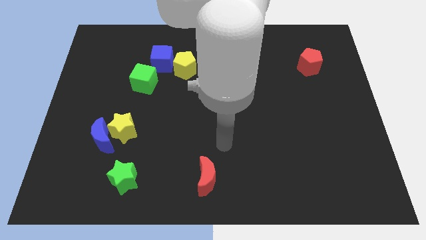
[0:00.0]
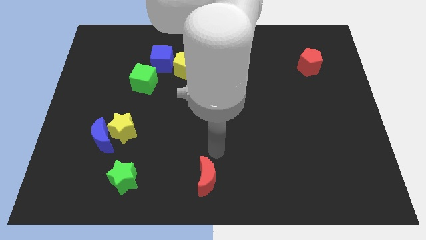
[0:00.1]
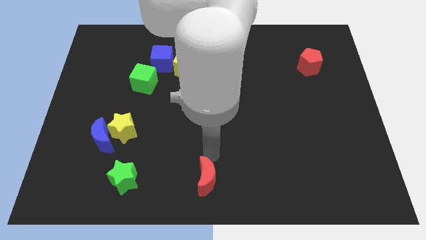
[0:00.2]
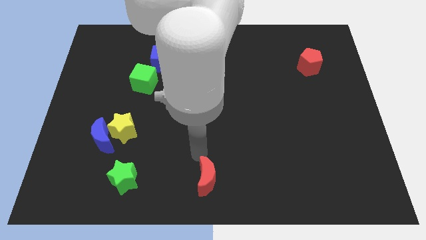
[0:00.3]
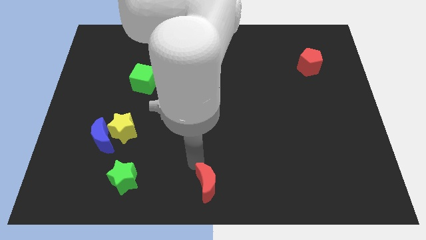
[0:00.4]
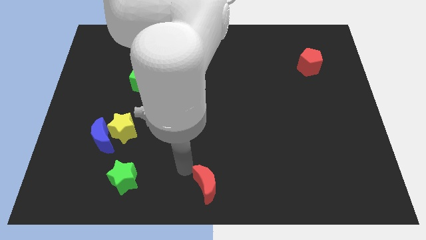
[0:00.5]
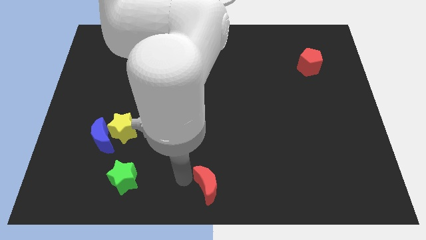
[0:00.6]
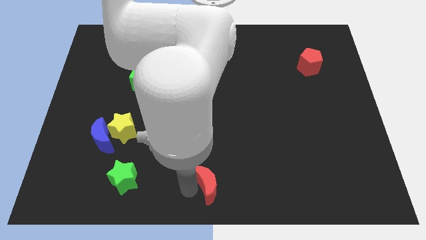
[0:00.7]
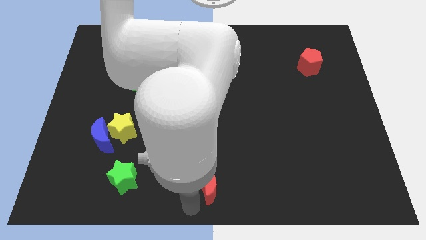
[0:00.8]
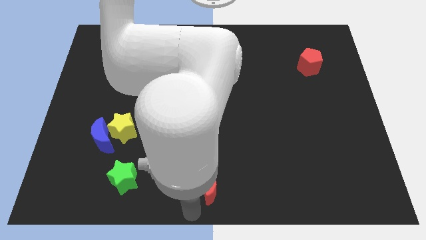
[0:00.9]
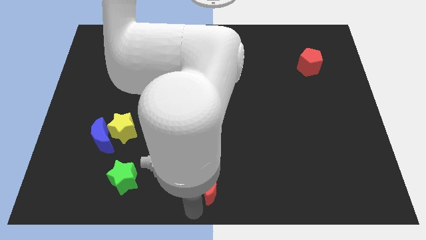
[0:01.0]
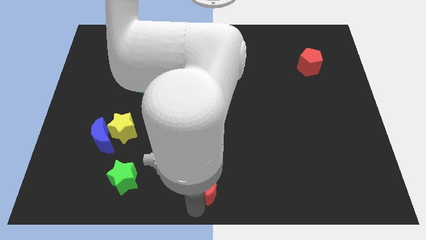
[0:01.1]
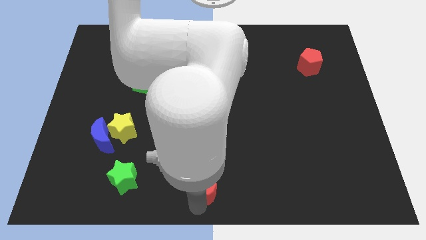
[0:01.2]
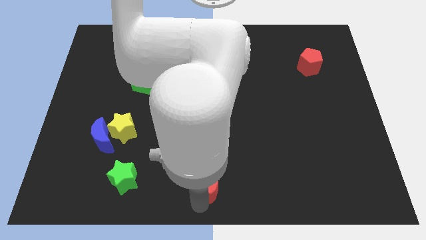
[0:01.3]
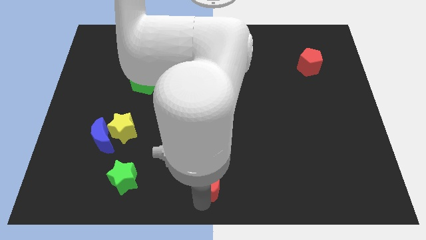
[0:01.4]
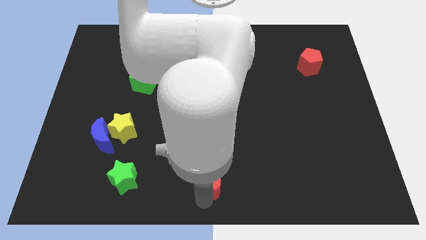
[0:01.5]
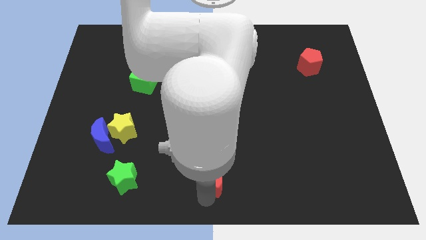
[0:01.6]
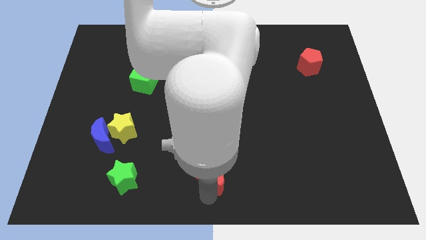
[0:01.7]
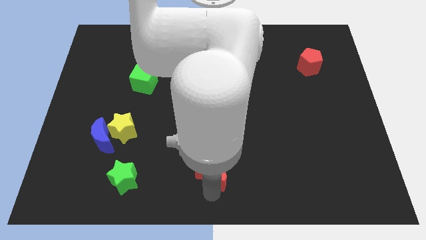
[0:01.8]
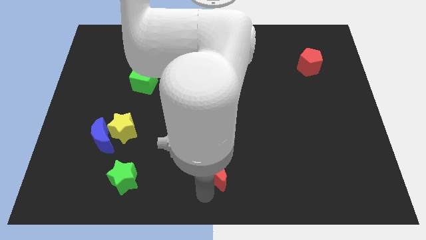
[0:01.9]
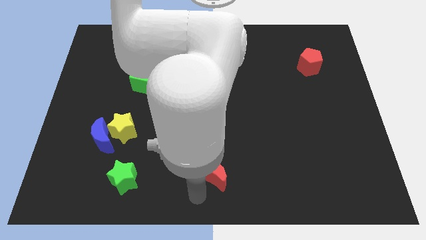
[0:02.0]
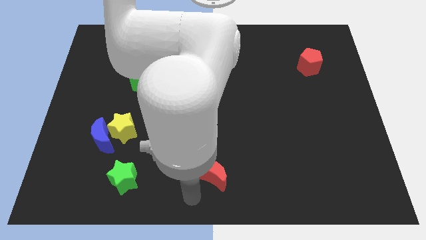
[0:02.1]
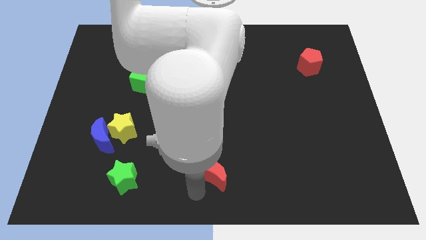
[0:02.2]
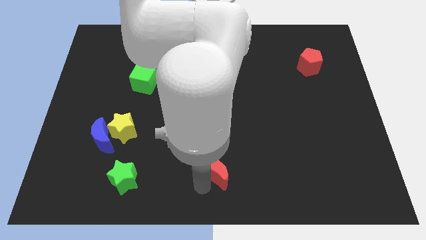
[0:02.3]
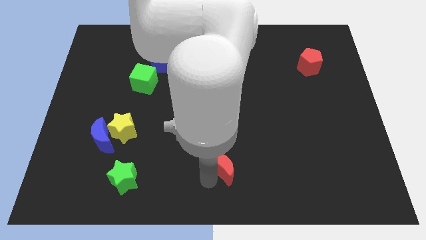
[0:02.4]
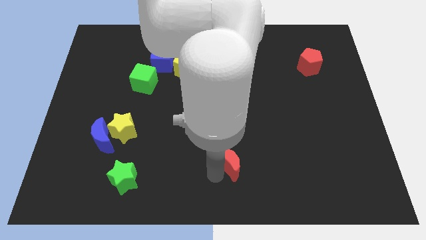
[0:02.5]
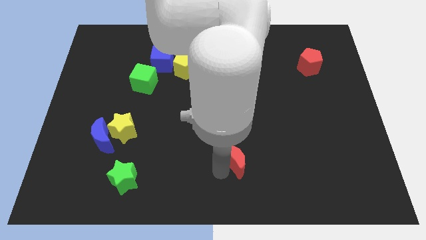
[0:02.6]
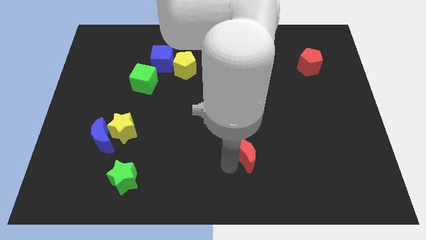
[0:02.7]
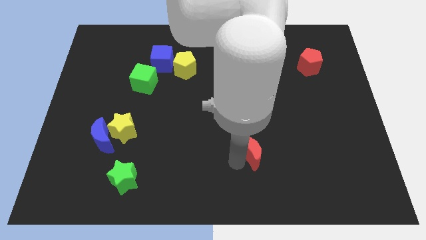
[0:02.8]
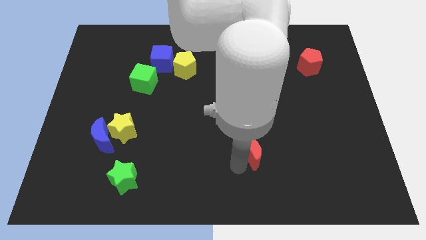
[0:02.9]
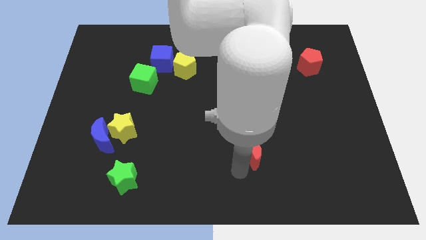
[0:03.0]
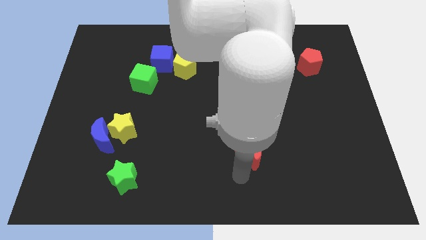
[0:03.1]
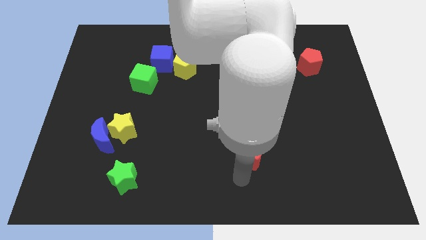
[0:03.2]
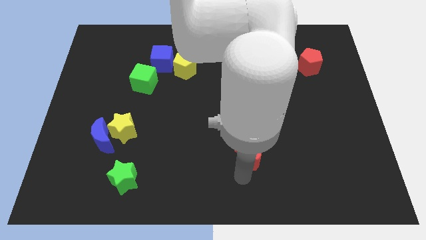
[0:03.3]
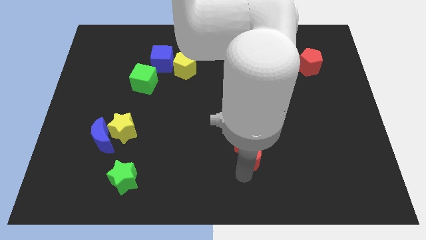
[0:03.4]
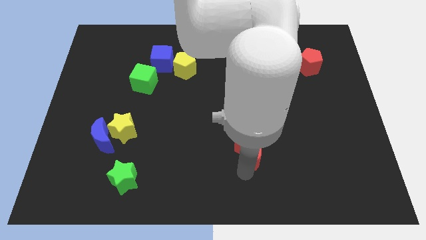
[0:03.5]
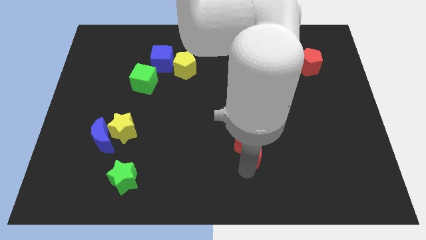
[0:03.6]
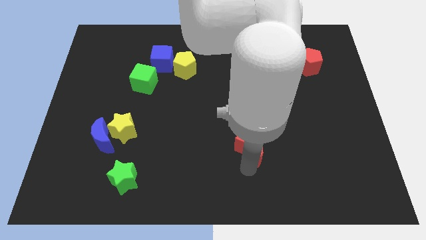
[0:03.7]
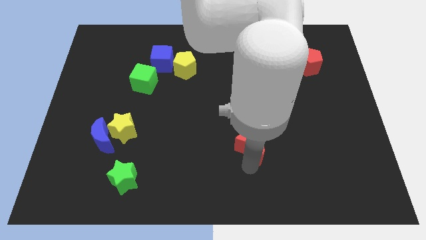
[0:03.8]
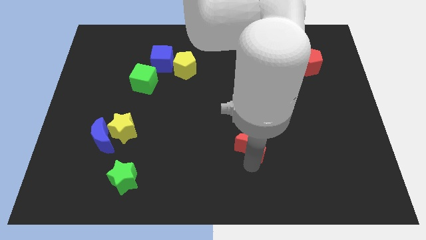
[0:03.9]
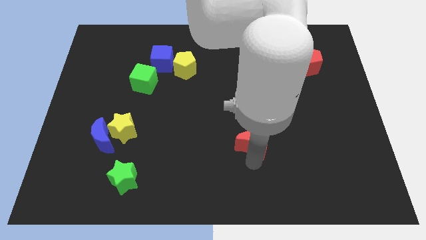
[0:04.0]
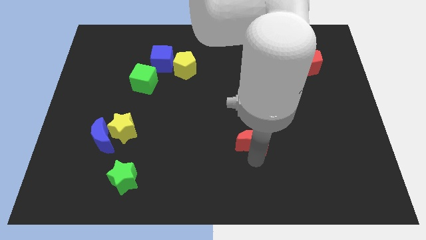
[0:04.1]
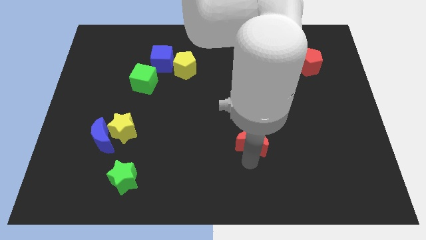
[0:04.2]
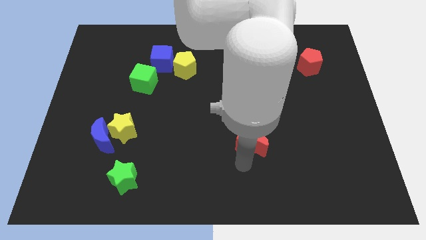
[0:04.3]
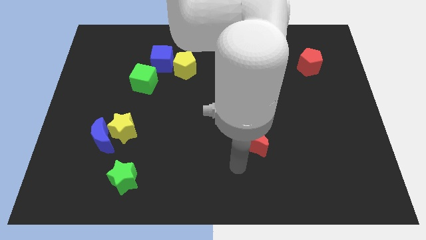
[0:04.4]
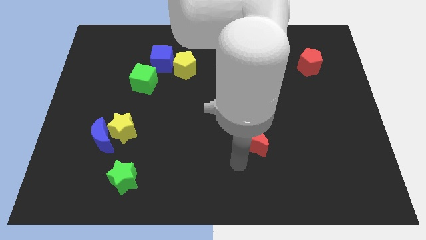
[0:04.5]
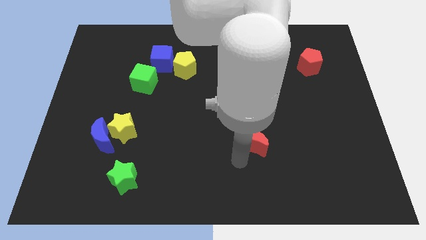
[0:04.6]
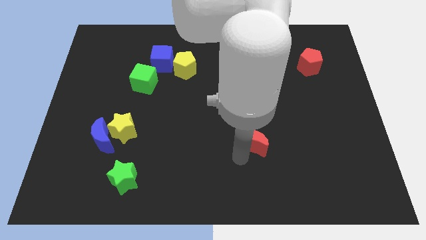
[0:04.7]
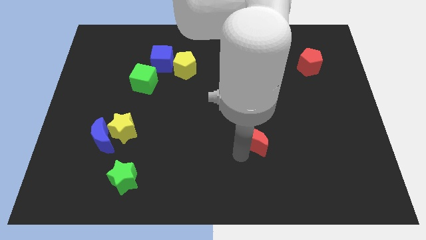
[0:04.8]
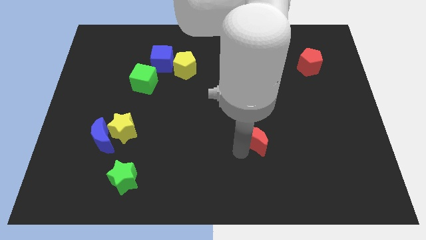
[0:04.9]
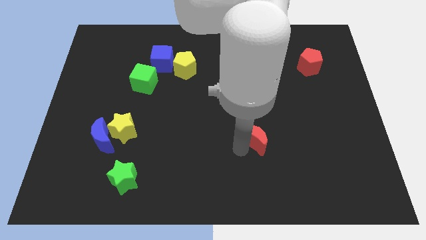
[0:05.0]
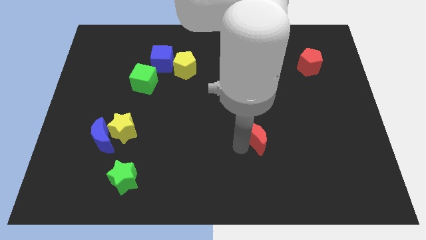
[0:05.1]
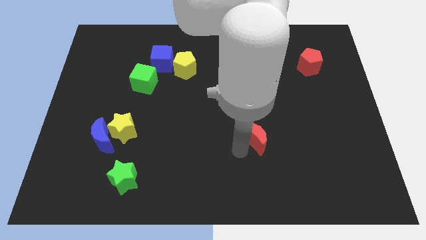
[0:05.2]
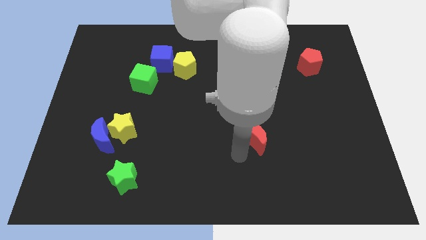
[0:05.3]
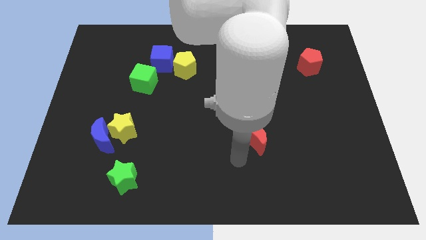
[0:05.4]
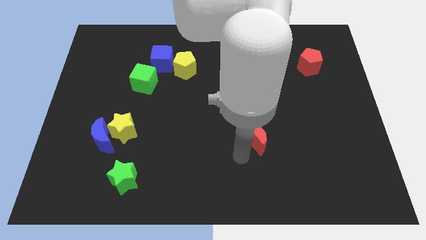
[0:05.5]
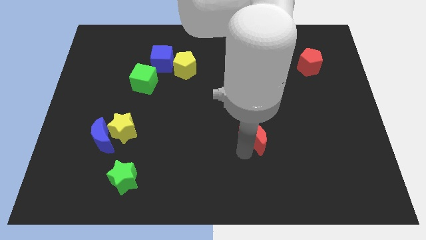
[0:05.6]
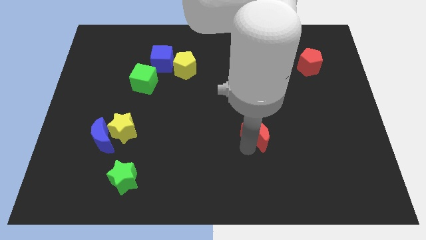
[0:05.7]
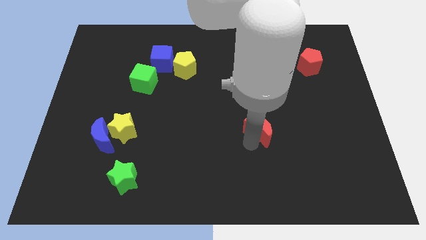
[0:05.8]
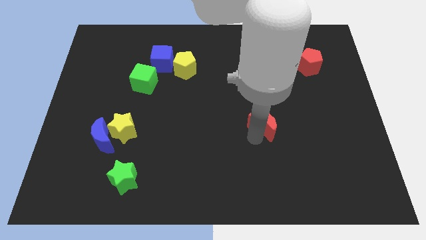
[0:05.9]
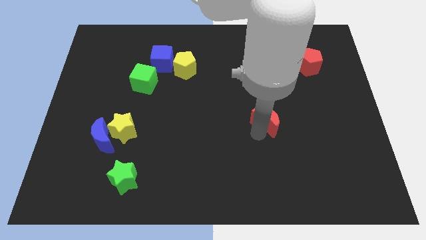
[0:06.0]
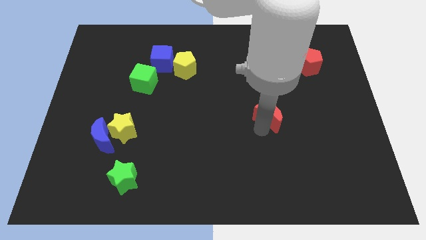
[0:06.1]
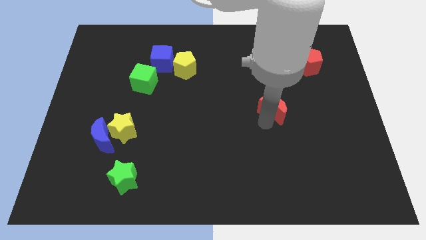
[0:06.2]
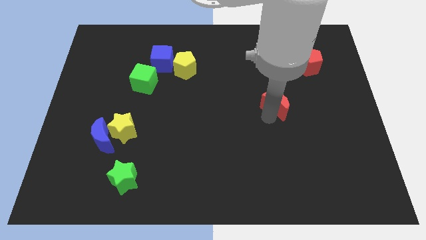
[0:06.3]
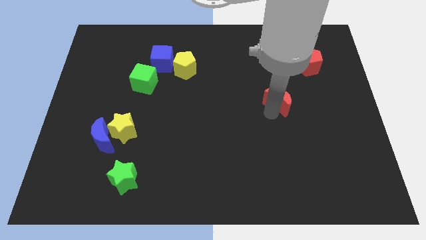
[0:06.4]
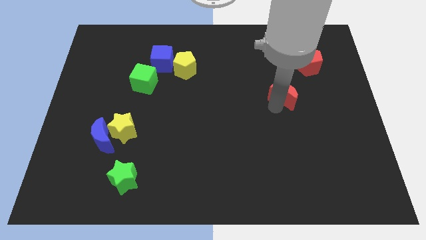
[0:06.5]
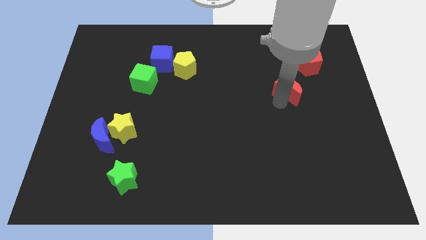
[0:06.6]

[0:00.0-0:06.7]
slide the red moon diagonally down and to the left of the red pentagon

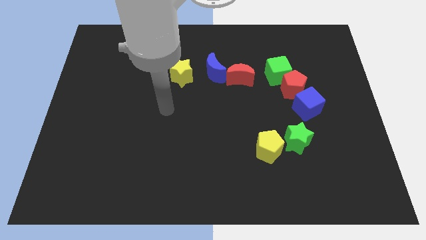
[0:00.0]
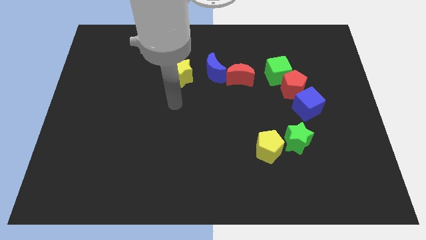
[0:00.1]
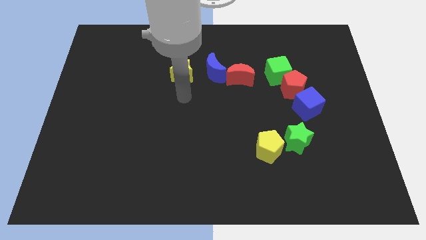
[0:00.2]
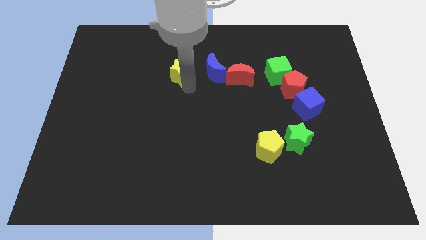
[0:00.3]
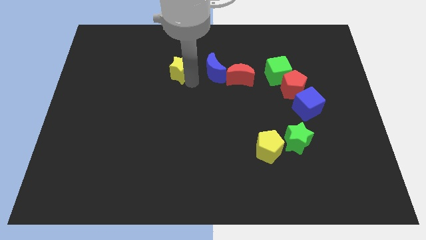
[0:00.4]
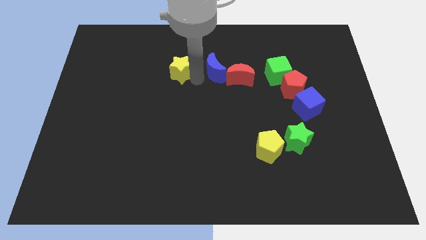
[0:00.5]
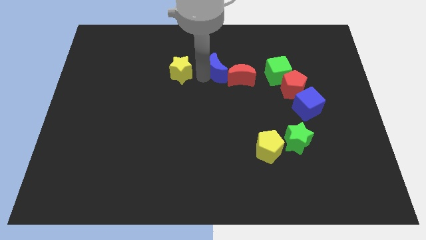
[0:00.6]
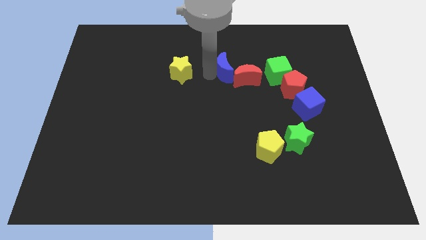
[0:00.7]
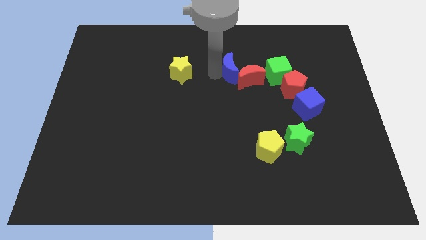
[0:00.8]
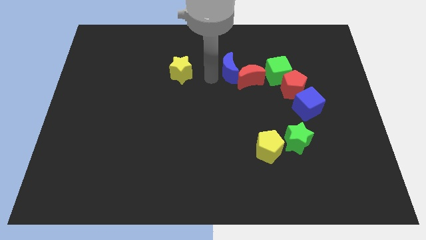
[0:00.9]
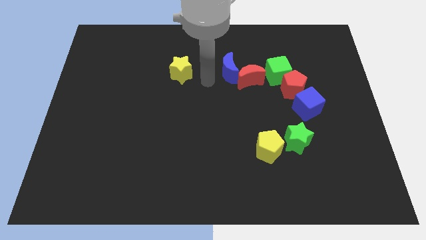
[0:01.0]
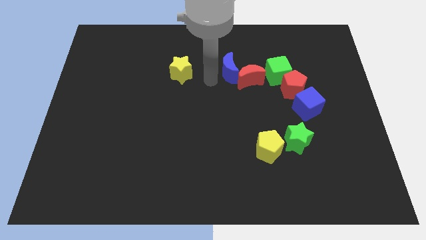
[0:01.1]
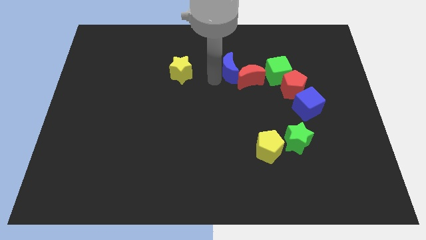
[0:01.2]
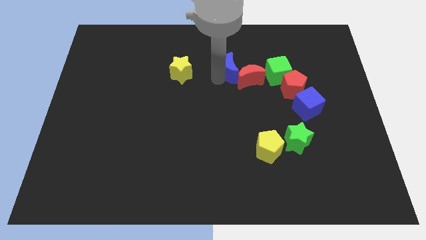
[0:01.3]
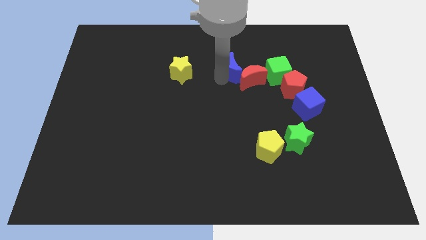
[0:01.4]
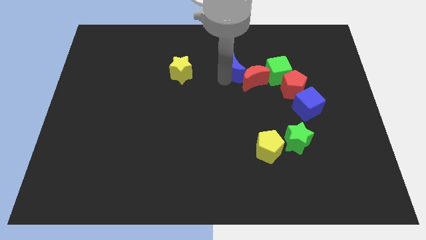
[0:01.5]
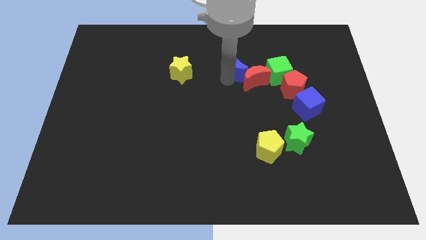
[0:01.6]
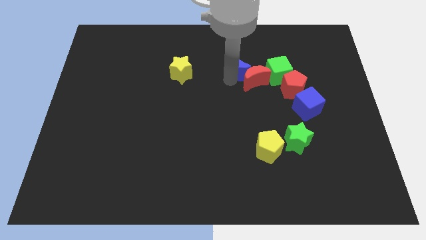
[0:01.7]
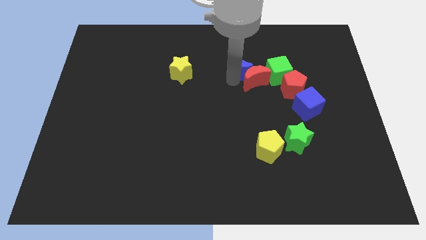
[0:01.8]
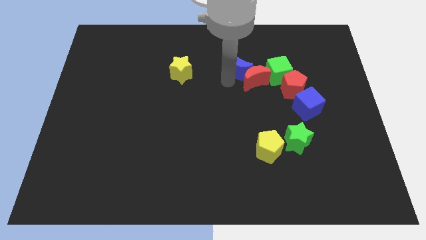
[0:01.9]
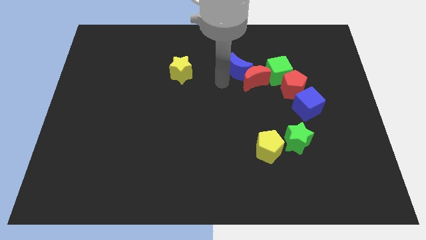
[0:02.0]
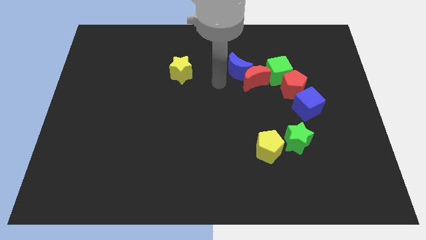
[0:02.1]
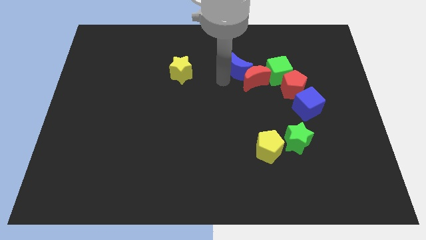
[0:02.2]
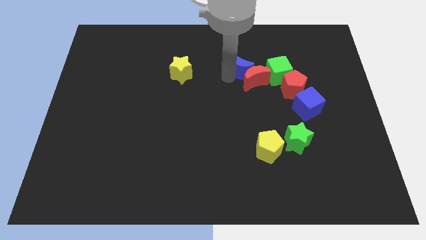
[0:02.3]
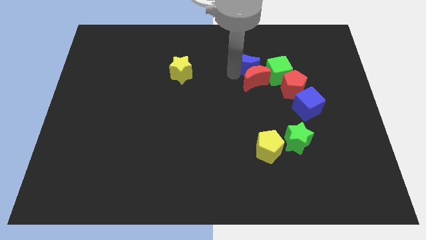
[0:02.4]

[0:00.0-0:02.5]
move the blue moon to the top left of the green cube
